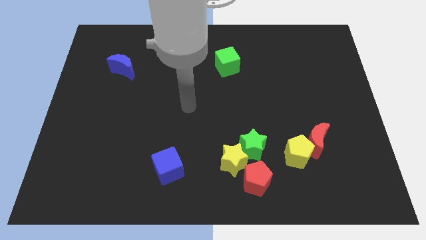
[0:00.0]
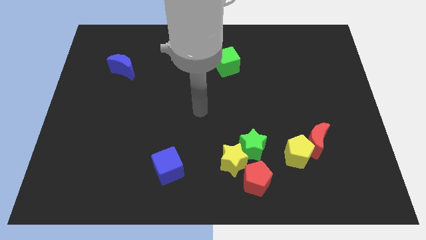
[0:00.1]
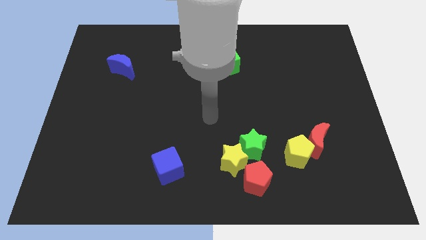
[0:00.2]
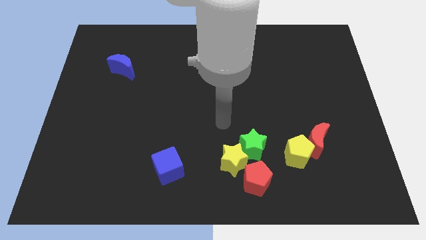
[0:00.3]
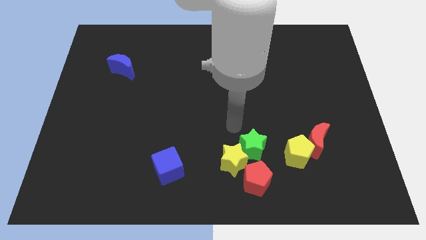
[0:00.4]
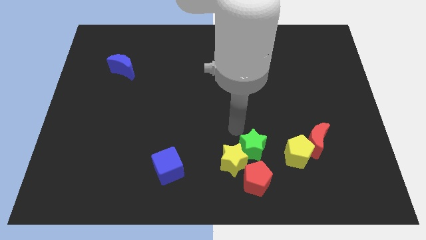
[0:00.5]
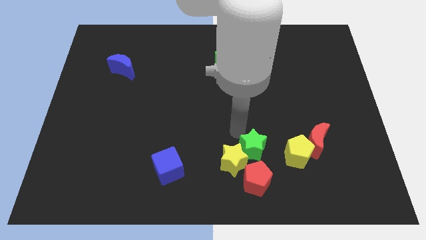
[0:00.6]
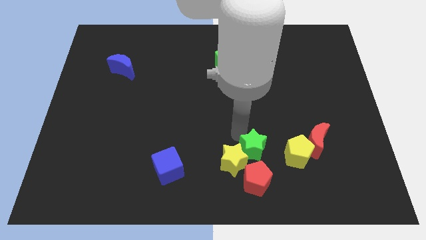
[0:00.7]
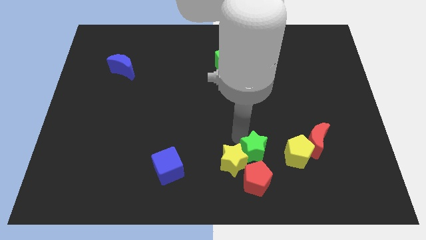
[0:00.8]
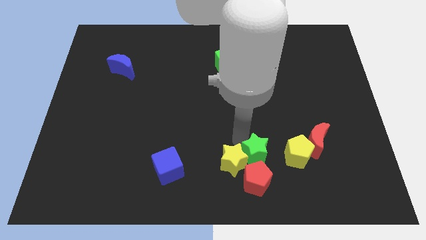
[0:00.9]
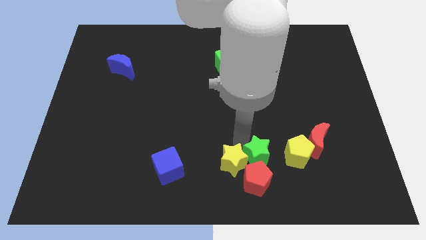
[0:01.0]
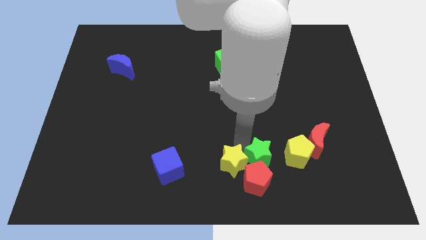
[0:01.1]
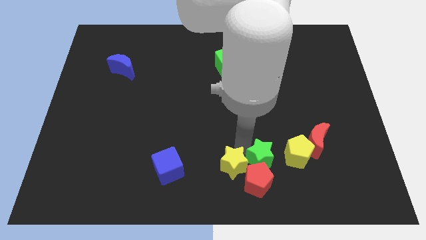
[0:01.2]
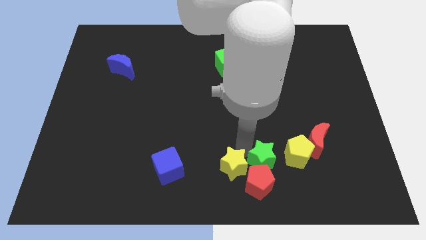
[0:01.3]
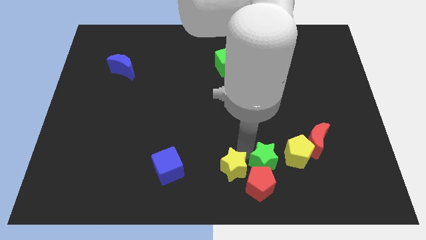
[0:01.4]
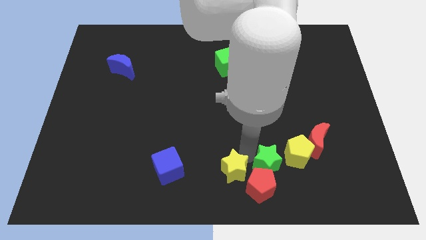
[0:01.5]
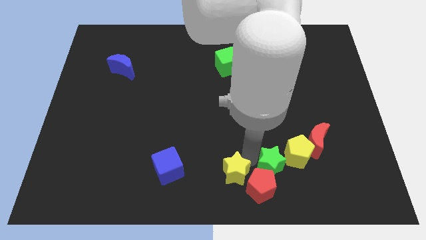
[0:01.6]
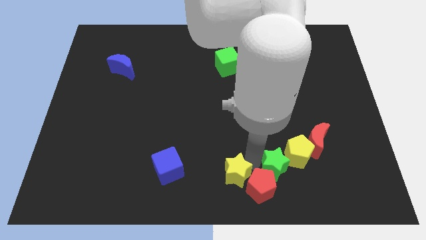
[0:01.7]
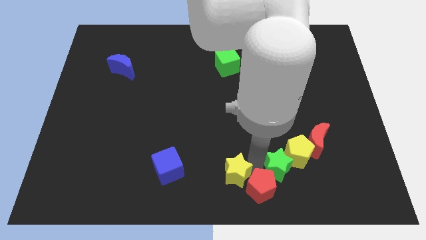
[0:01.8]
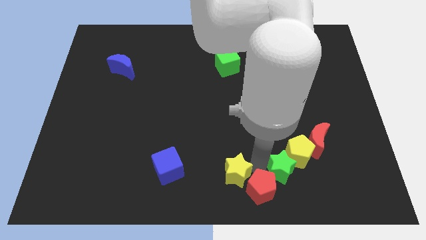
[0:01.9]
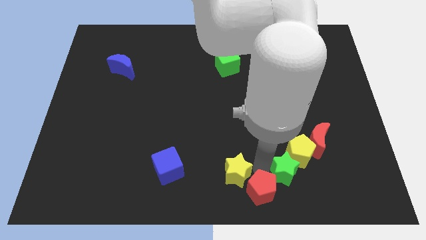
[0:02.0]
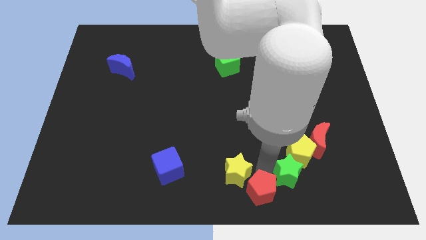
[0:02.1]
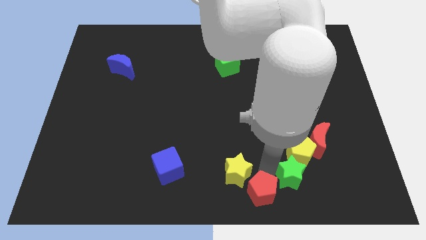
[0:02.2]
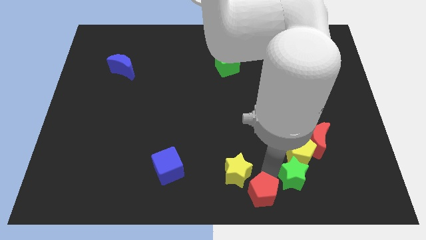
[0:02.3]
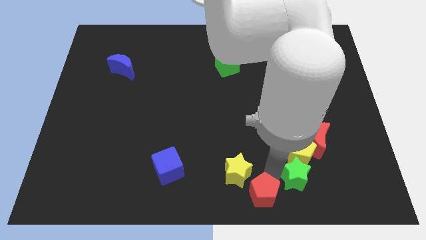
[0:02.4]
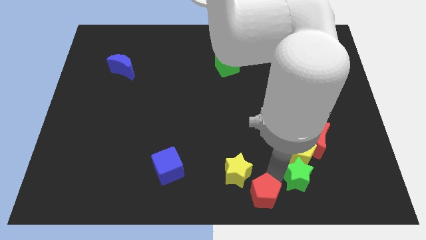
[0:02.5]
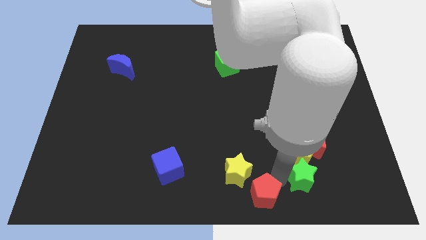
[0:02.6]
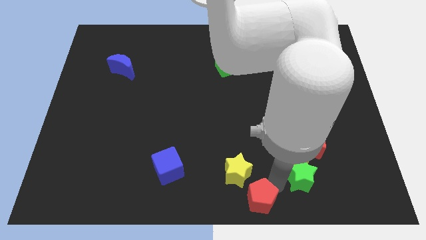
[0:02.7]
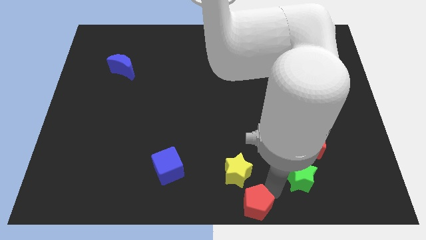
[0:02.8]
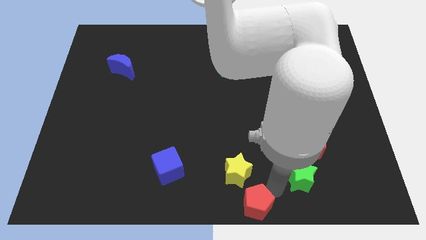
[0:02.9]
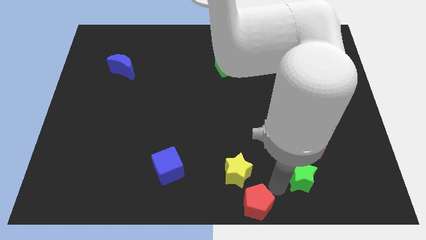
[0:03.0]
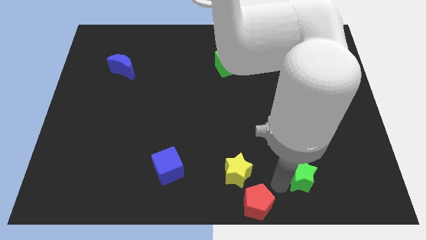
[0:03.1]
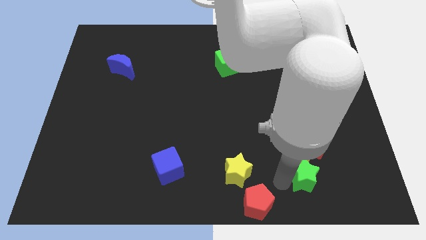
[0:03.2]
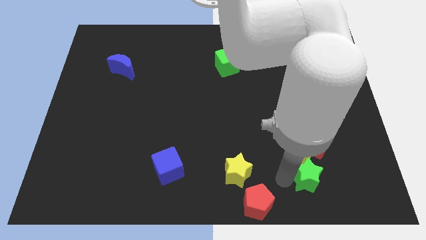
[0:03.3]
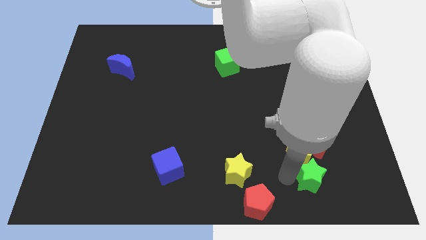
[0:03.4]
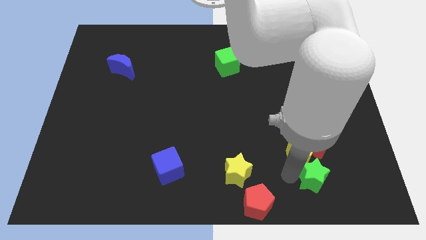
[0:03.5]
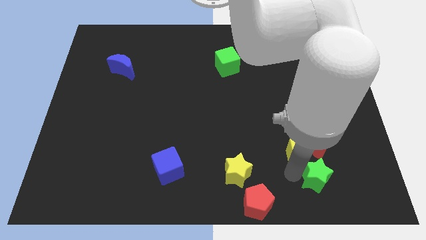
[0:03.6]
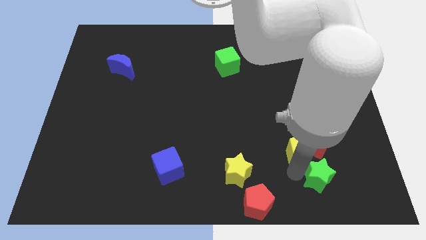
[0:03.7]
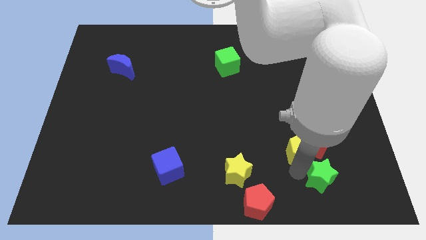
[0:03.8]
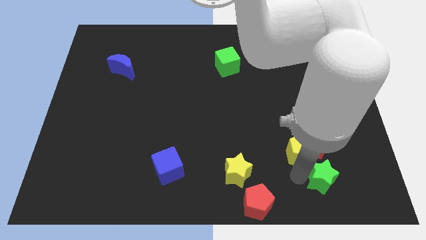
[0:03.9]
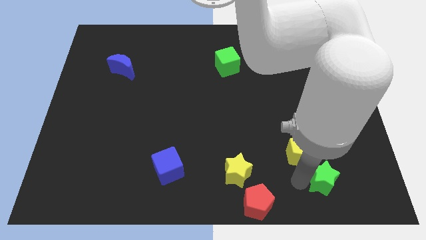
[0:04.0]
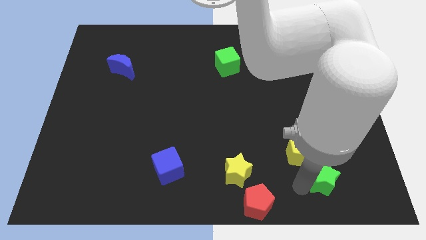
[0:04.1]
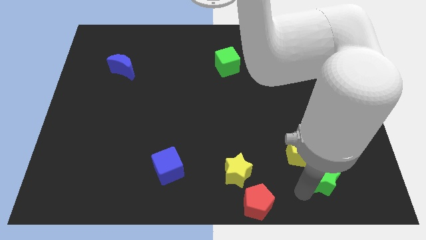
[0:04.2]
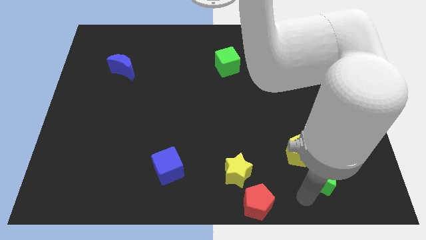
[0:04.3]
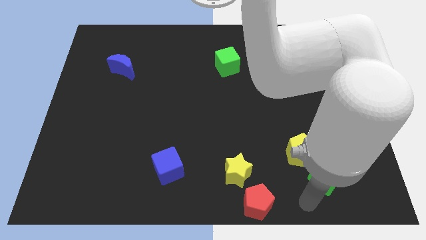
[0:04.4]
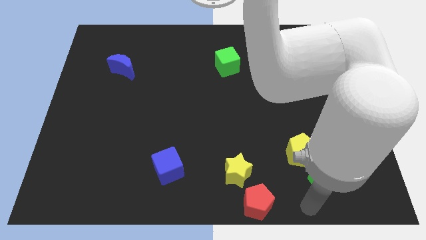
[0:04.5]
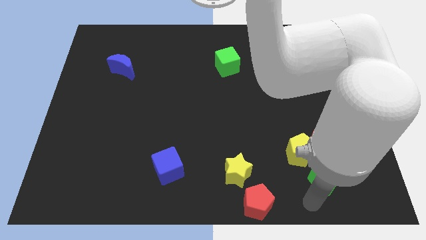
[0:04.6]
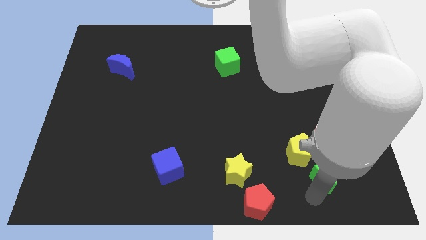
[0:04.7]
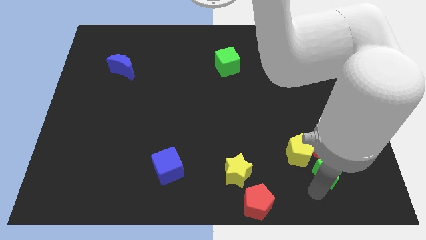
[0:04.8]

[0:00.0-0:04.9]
slide the green star to the right side of the yellow pentagon

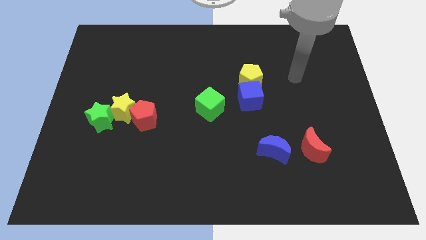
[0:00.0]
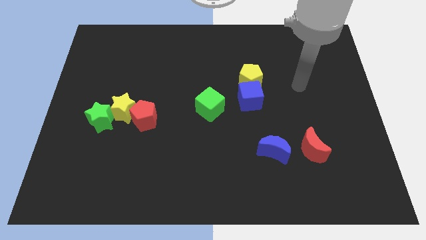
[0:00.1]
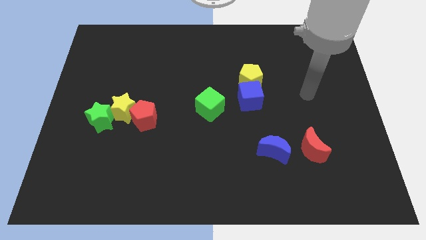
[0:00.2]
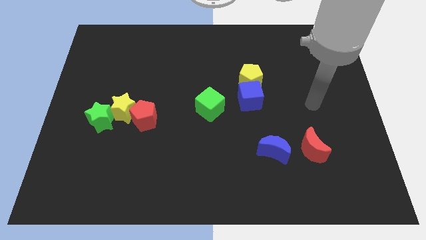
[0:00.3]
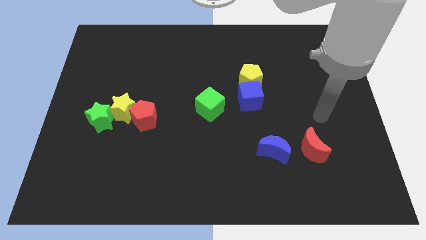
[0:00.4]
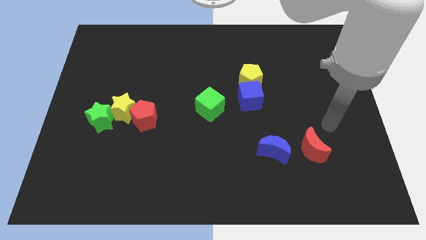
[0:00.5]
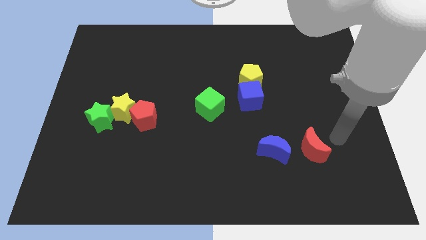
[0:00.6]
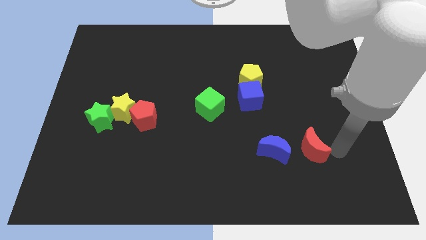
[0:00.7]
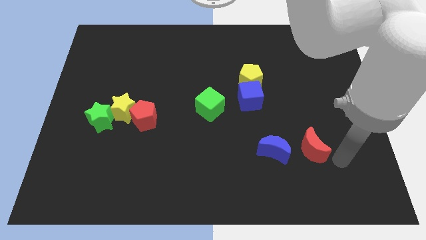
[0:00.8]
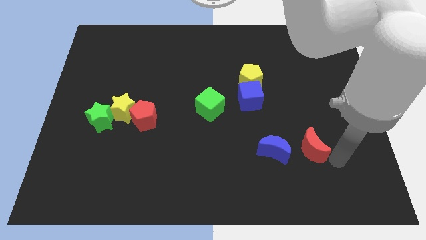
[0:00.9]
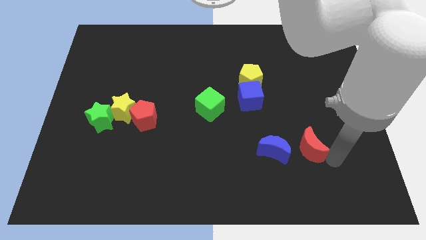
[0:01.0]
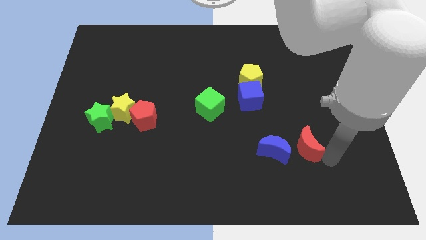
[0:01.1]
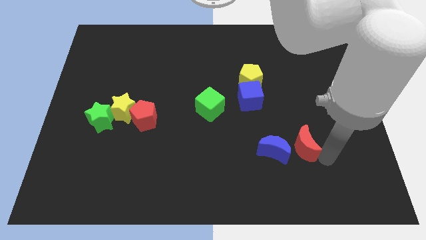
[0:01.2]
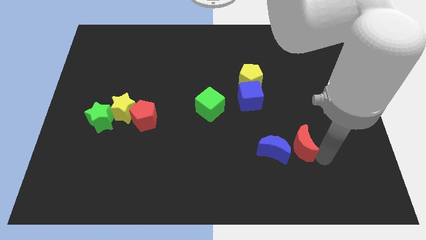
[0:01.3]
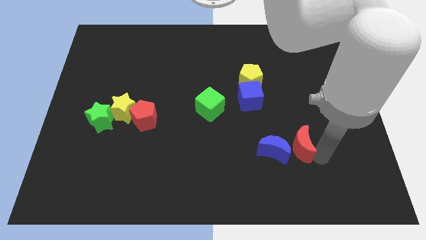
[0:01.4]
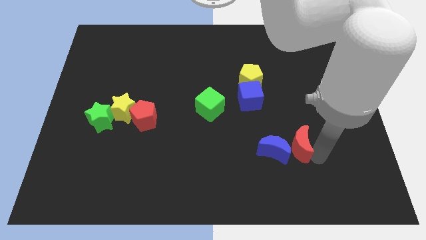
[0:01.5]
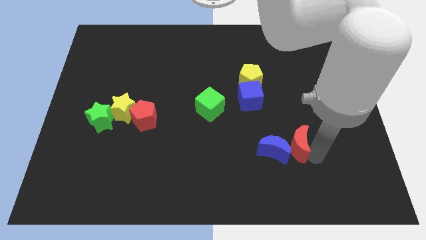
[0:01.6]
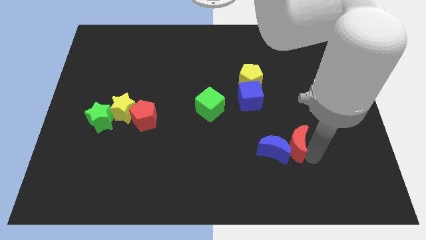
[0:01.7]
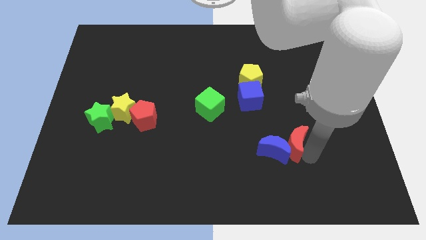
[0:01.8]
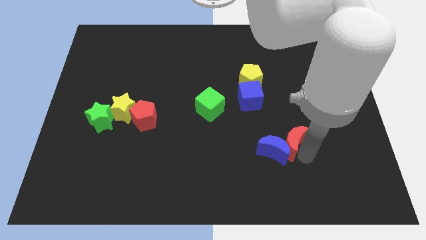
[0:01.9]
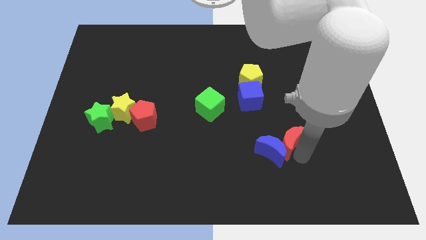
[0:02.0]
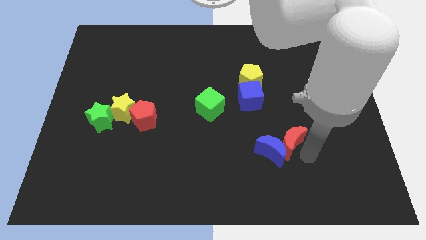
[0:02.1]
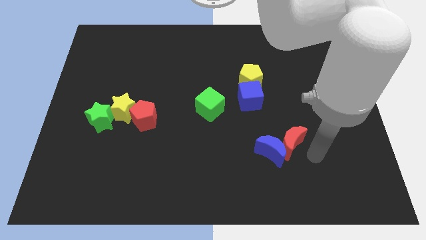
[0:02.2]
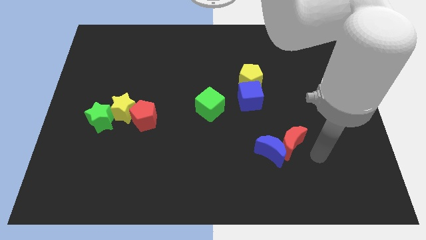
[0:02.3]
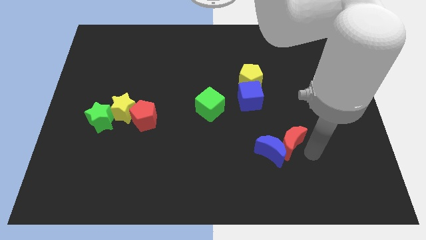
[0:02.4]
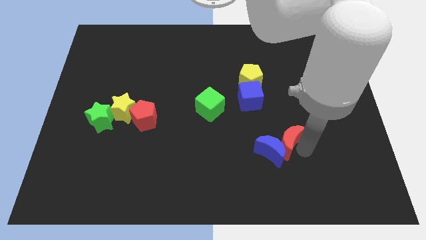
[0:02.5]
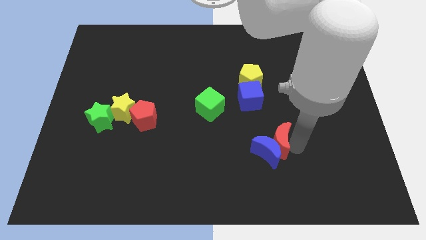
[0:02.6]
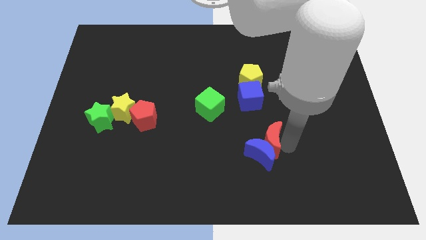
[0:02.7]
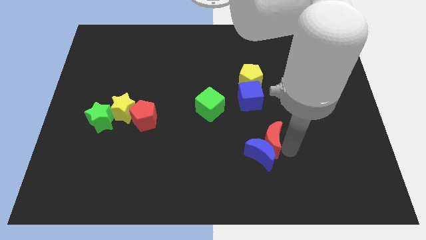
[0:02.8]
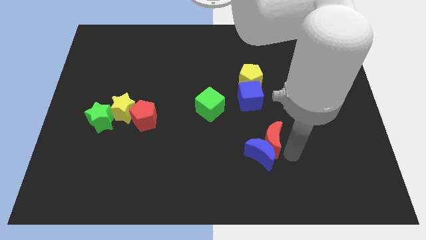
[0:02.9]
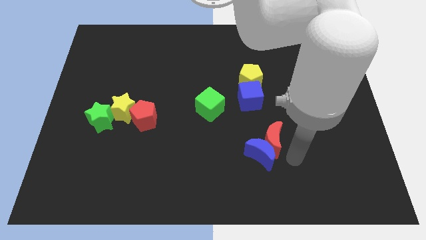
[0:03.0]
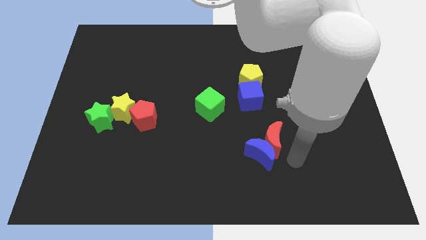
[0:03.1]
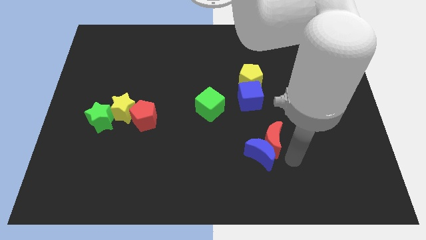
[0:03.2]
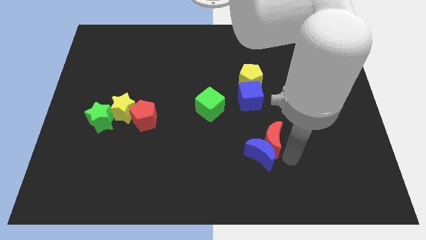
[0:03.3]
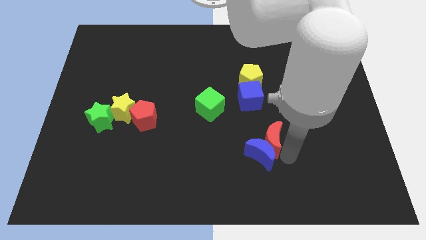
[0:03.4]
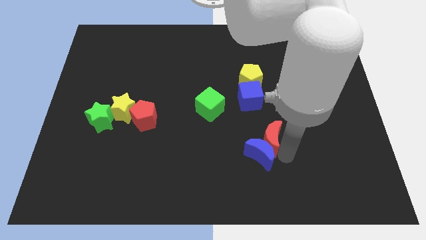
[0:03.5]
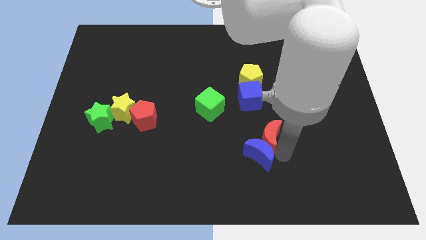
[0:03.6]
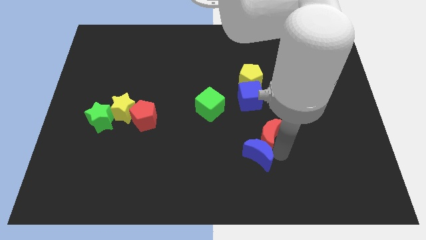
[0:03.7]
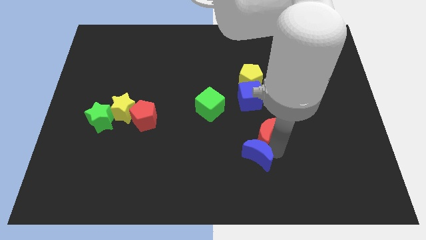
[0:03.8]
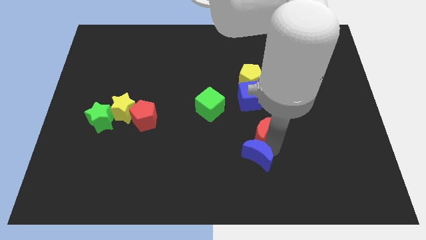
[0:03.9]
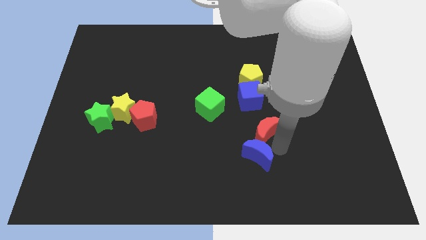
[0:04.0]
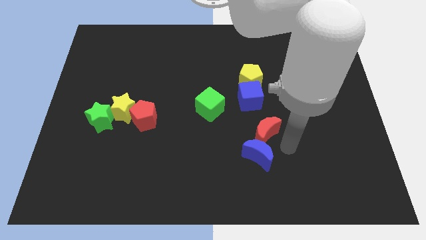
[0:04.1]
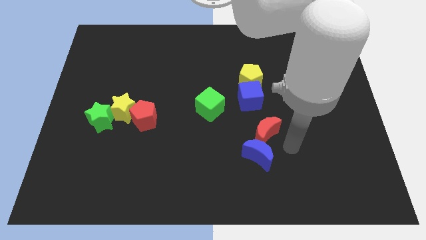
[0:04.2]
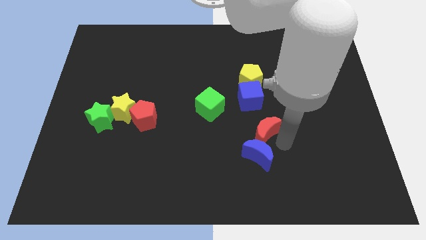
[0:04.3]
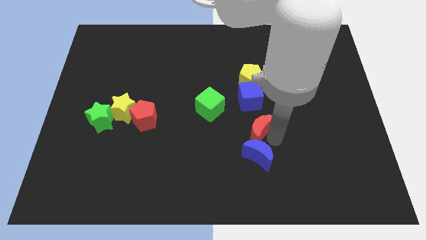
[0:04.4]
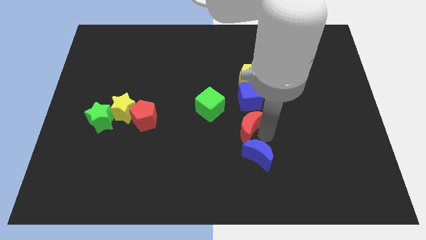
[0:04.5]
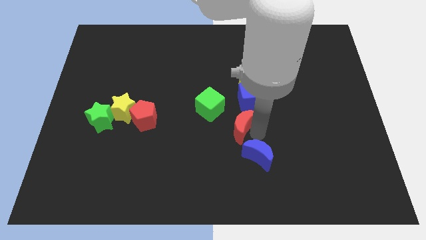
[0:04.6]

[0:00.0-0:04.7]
slide the red moon to the bottom left side of the blue cube
